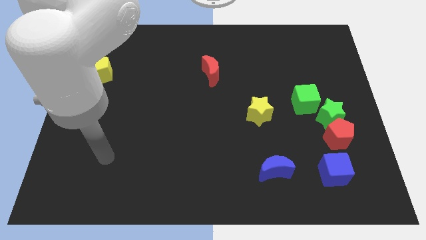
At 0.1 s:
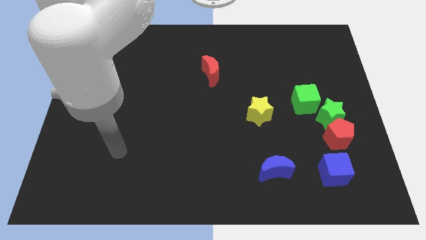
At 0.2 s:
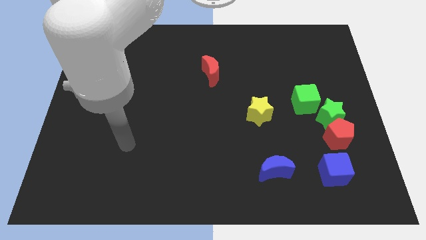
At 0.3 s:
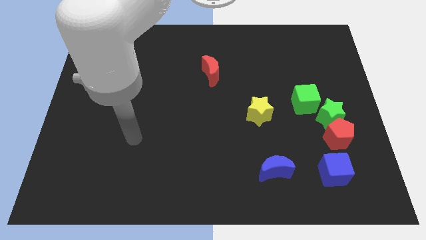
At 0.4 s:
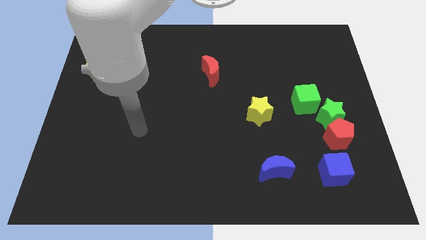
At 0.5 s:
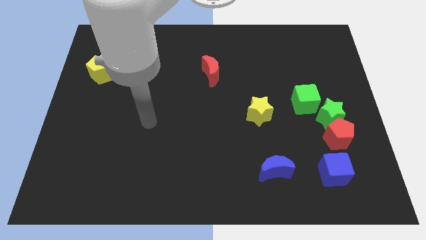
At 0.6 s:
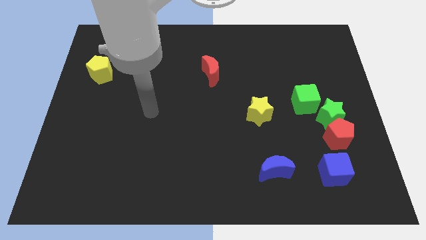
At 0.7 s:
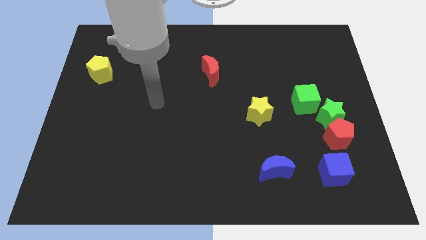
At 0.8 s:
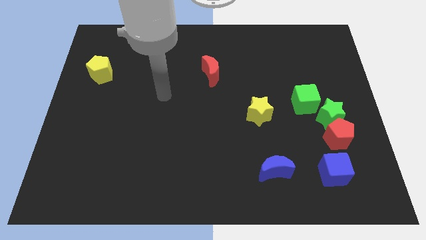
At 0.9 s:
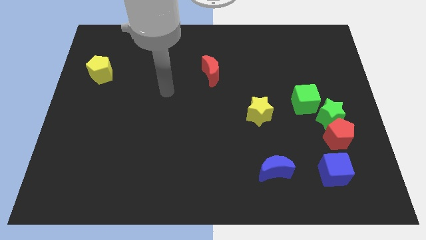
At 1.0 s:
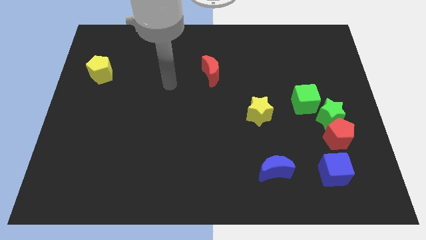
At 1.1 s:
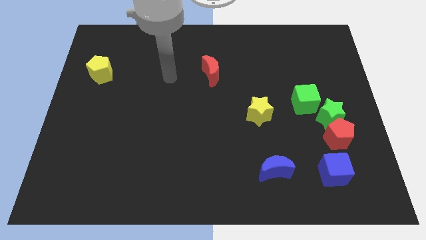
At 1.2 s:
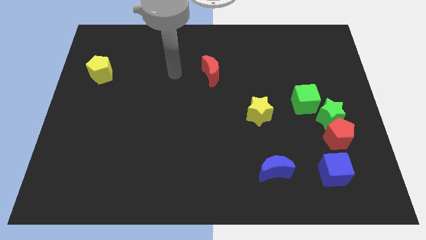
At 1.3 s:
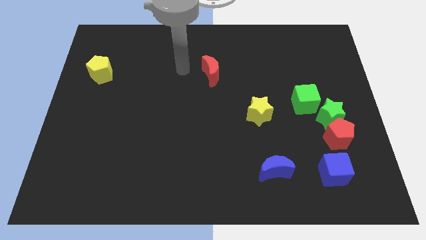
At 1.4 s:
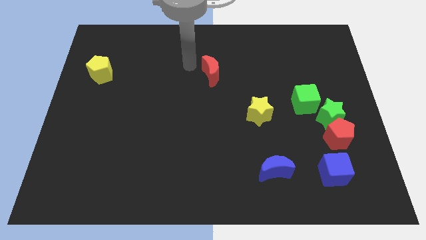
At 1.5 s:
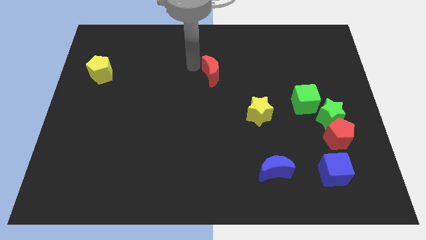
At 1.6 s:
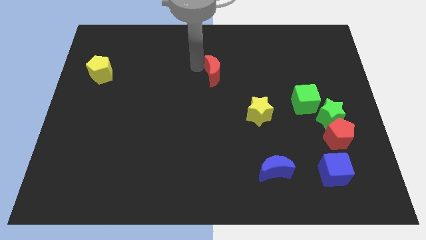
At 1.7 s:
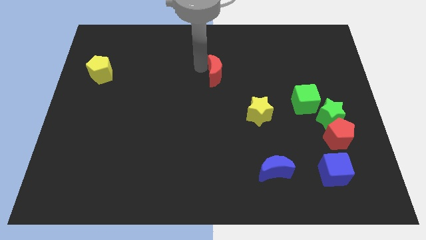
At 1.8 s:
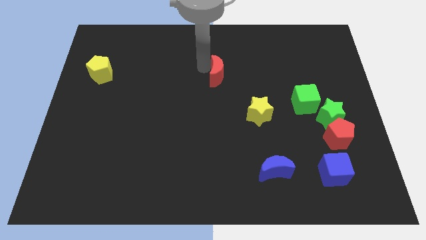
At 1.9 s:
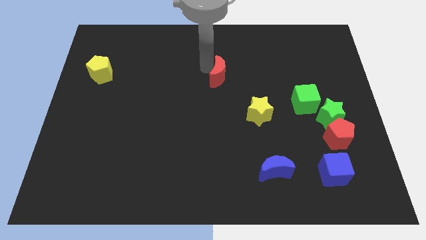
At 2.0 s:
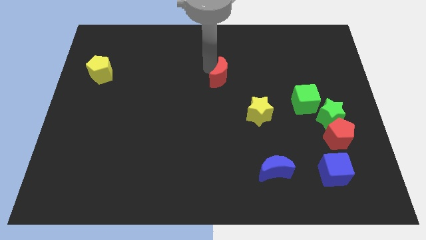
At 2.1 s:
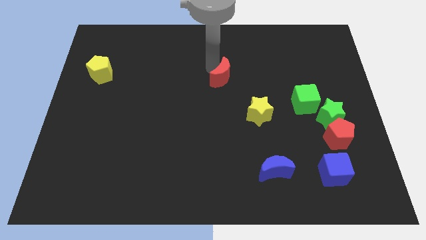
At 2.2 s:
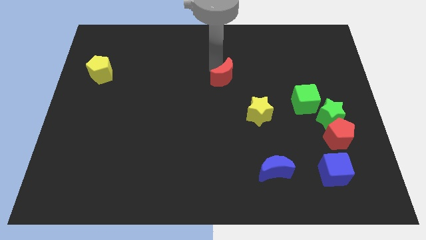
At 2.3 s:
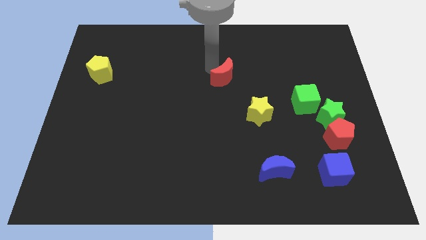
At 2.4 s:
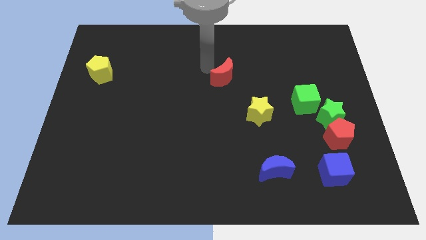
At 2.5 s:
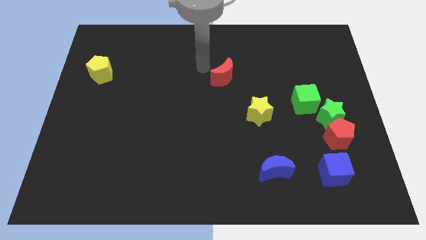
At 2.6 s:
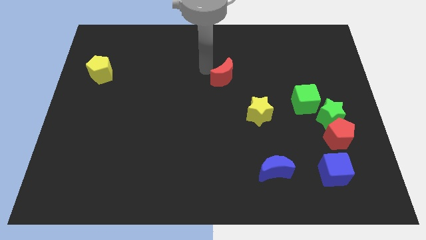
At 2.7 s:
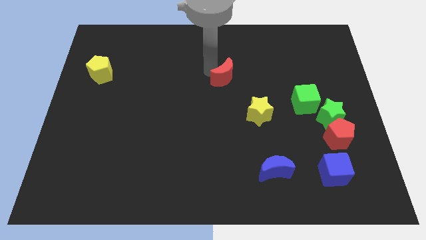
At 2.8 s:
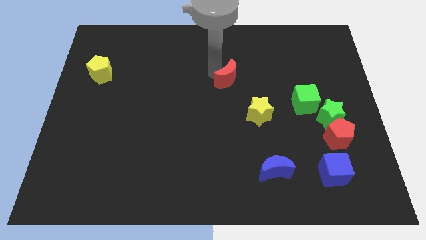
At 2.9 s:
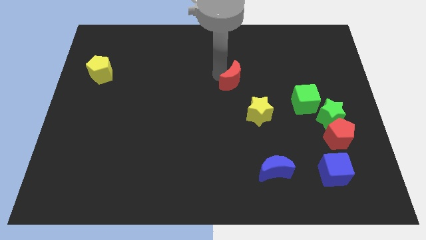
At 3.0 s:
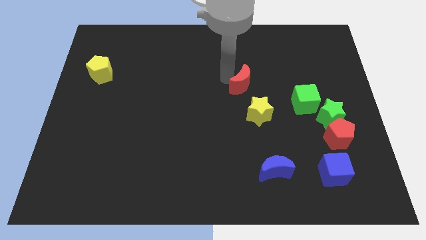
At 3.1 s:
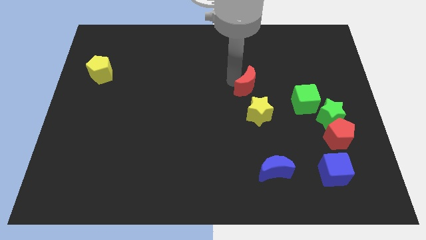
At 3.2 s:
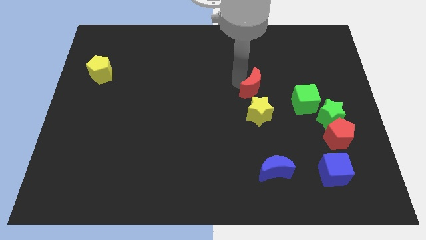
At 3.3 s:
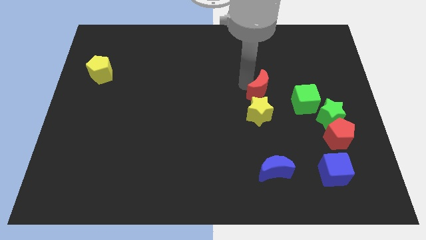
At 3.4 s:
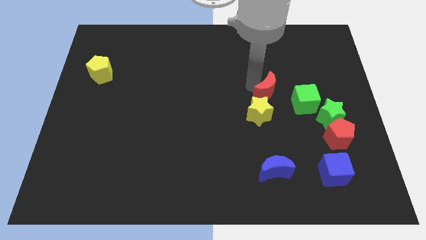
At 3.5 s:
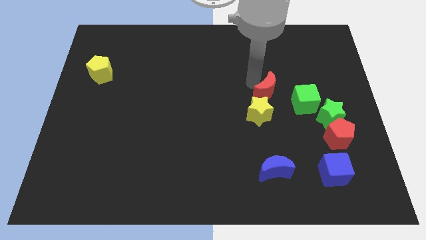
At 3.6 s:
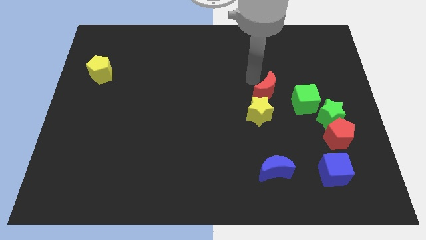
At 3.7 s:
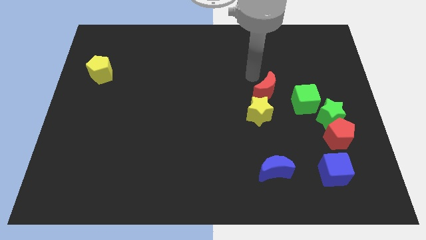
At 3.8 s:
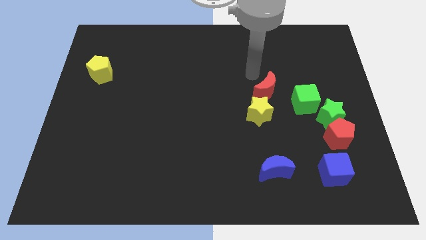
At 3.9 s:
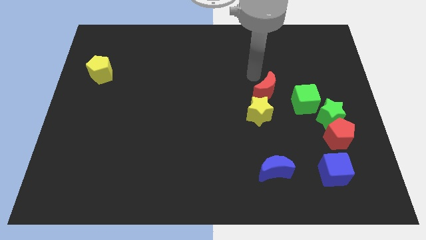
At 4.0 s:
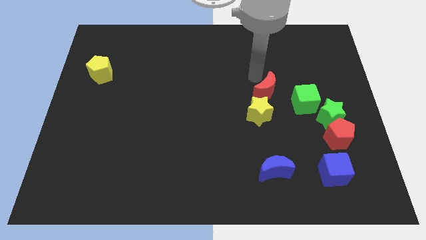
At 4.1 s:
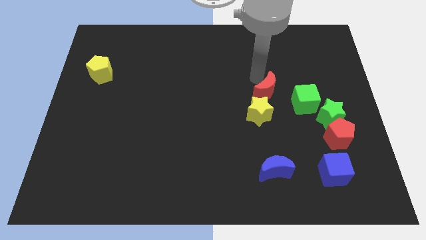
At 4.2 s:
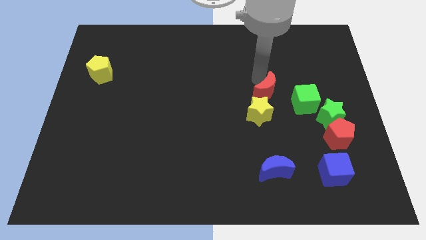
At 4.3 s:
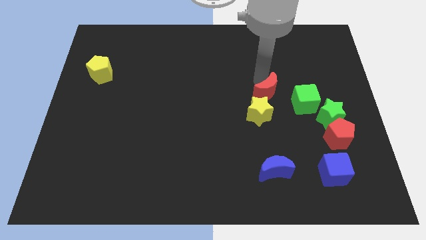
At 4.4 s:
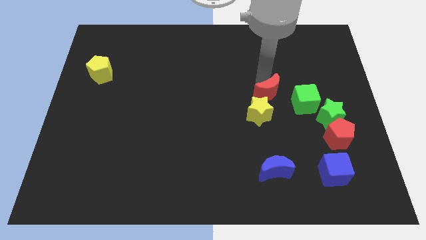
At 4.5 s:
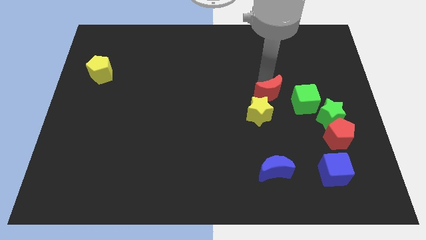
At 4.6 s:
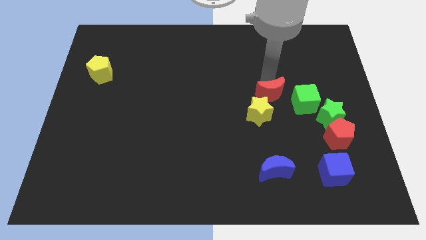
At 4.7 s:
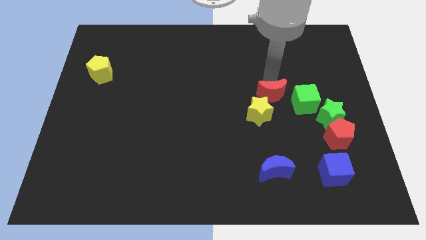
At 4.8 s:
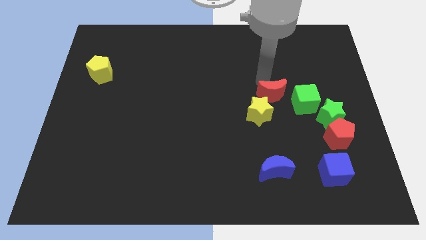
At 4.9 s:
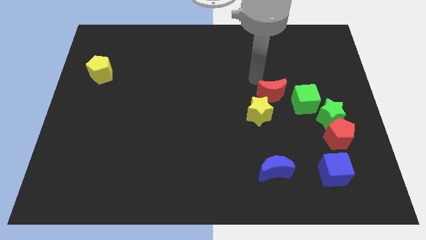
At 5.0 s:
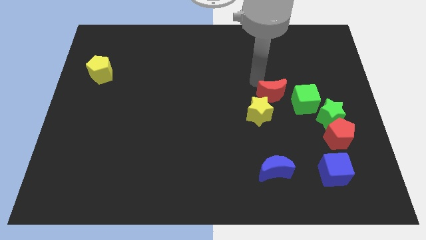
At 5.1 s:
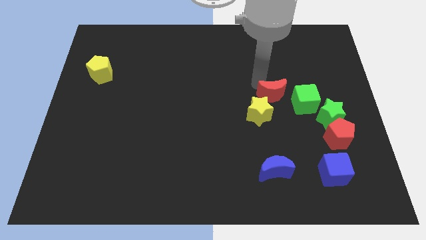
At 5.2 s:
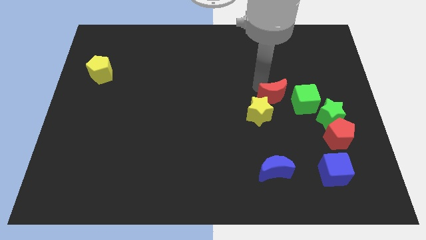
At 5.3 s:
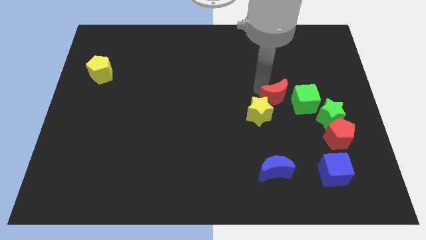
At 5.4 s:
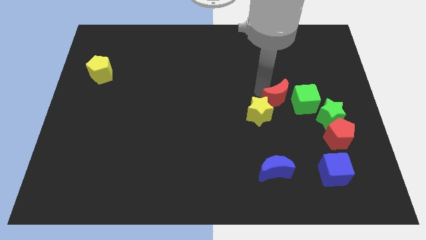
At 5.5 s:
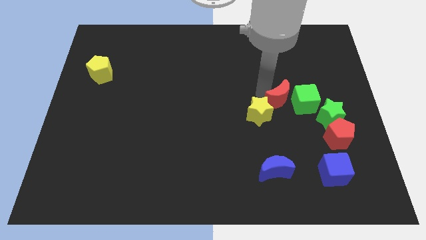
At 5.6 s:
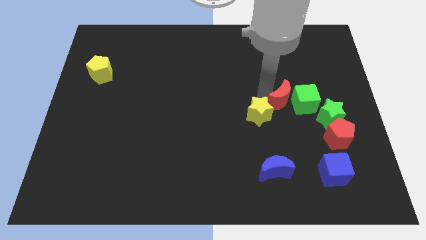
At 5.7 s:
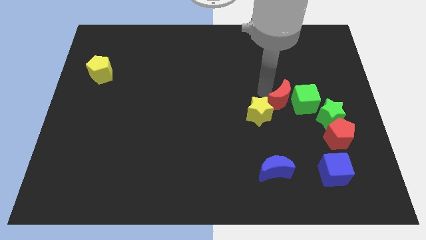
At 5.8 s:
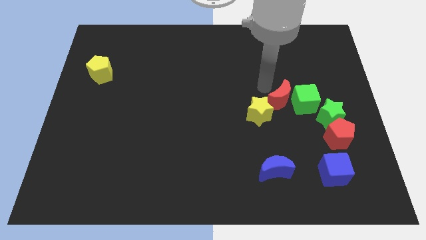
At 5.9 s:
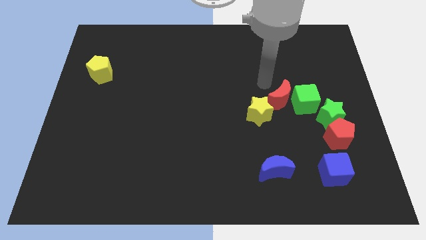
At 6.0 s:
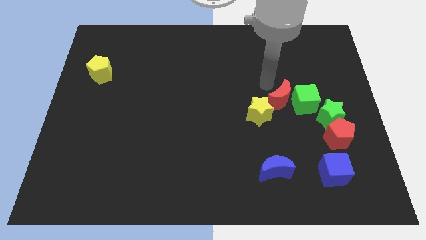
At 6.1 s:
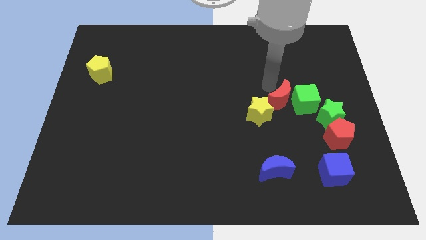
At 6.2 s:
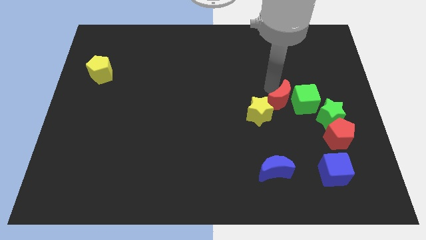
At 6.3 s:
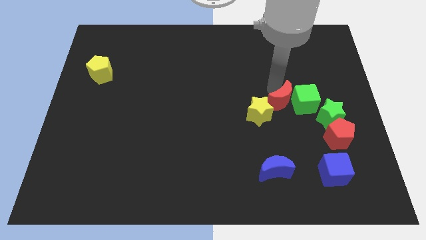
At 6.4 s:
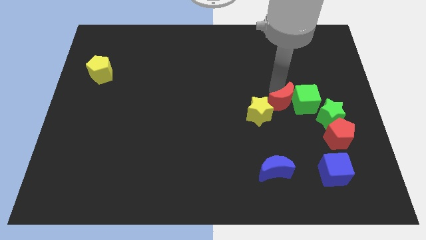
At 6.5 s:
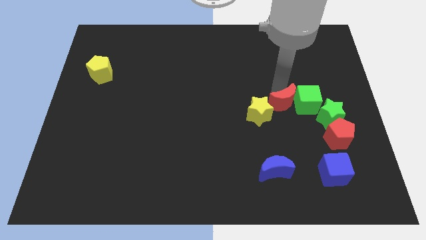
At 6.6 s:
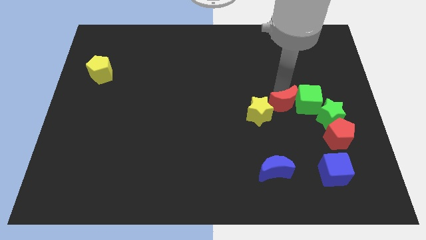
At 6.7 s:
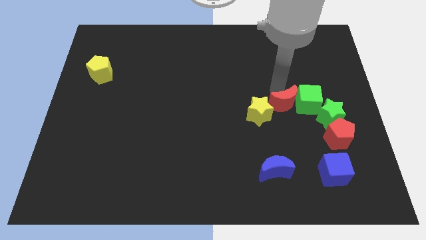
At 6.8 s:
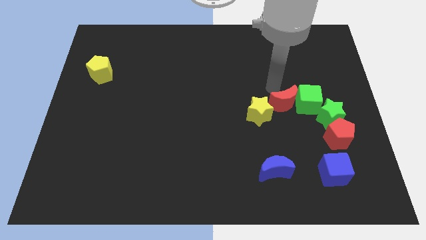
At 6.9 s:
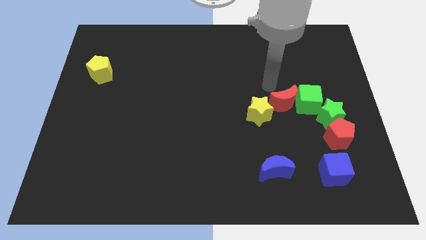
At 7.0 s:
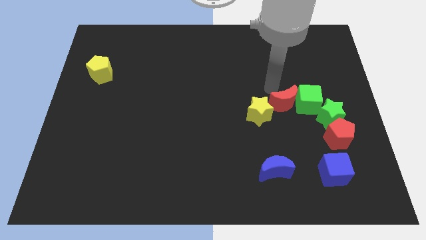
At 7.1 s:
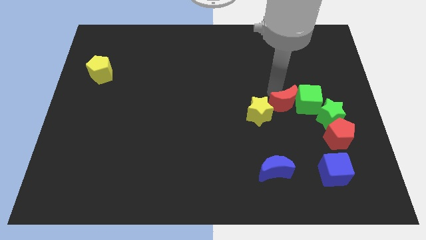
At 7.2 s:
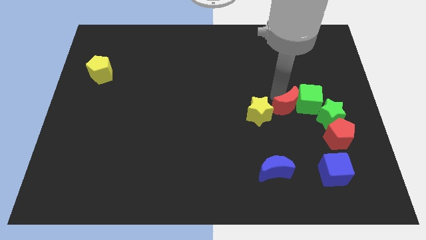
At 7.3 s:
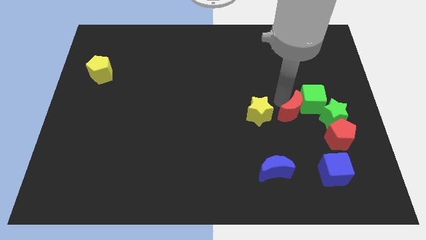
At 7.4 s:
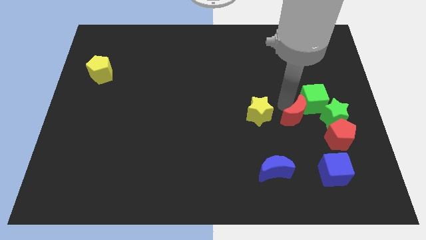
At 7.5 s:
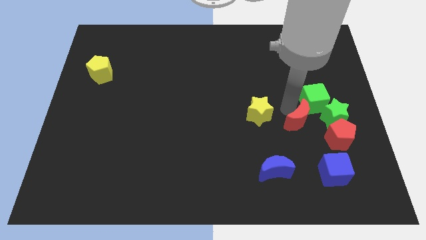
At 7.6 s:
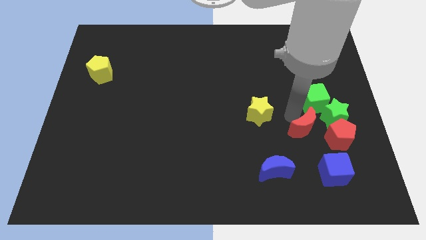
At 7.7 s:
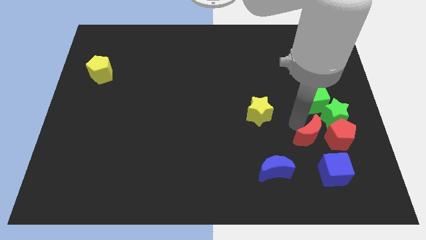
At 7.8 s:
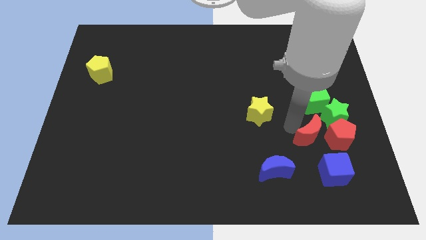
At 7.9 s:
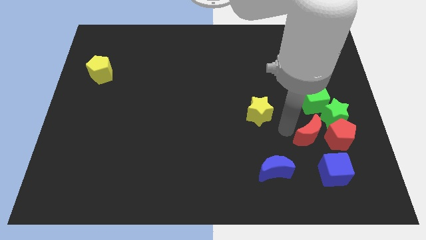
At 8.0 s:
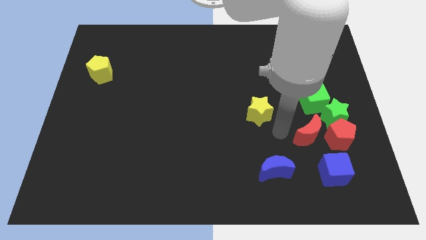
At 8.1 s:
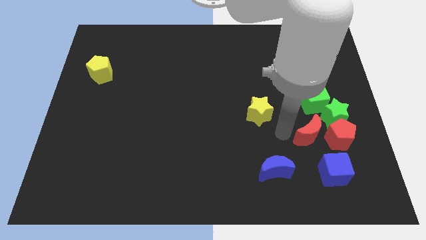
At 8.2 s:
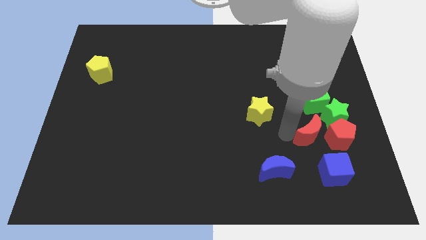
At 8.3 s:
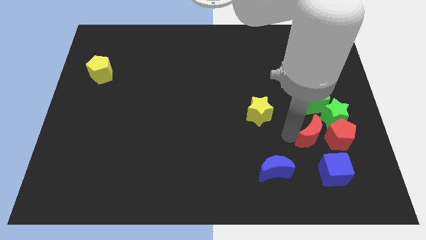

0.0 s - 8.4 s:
slide the red moon next to the red pentagon
